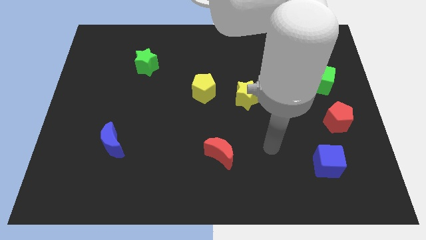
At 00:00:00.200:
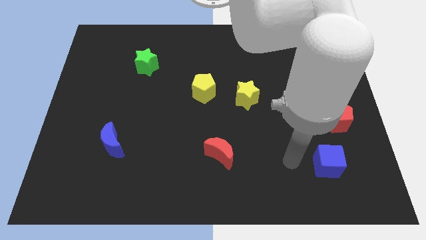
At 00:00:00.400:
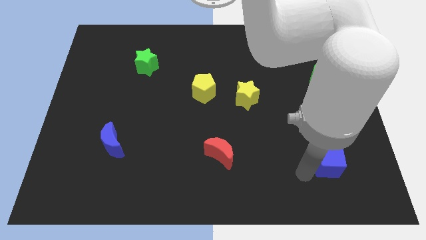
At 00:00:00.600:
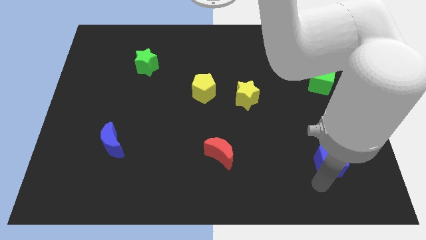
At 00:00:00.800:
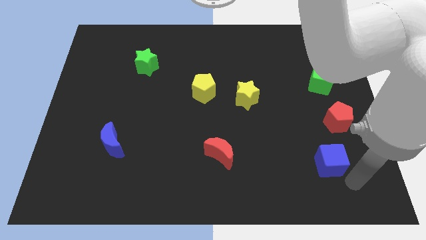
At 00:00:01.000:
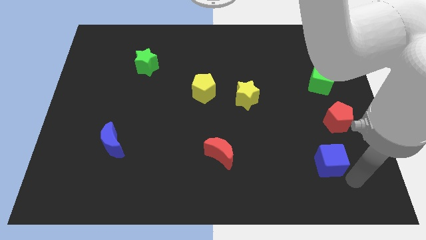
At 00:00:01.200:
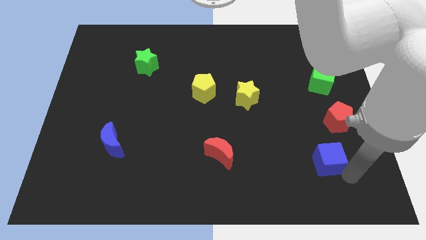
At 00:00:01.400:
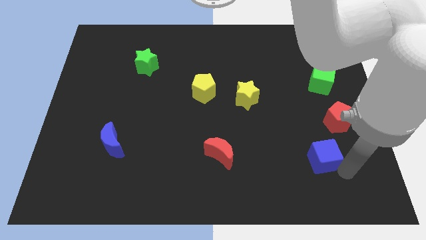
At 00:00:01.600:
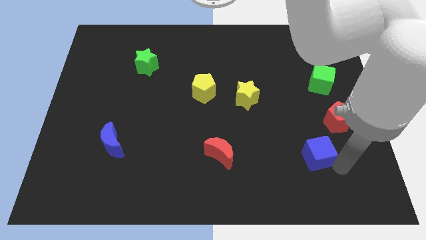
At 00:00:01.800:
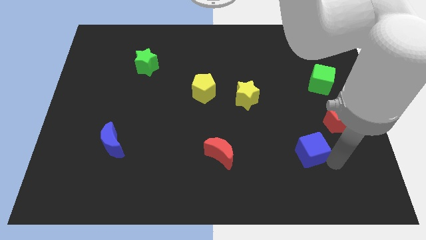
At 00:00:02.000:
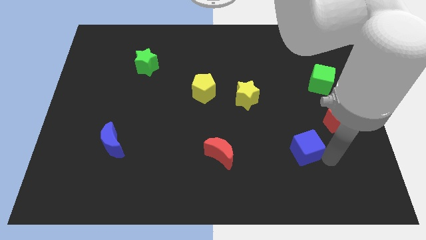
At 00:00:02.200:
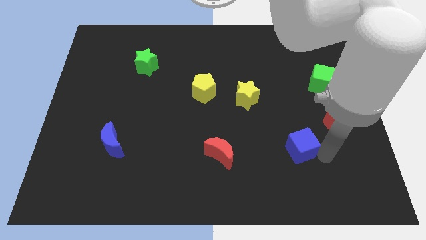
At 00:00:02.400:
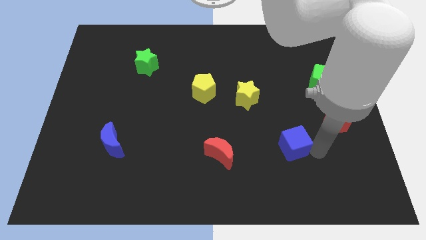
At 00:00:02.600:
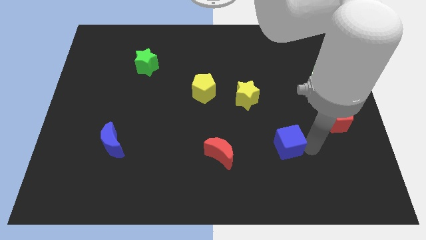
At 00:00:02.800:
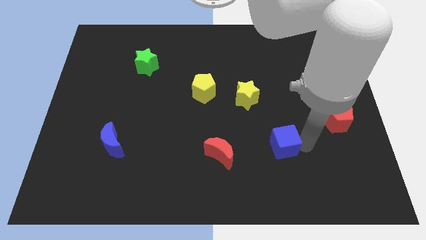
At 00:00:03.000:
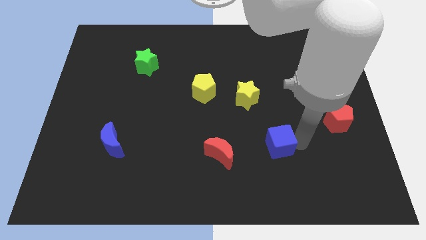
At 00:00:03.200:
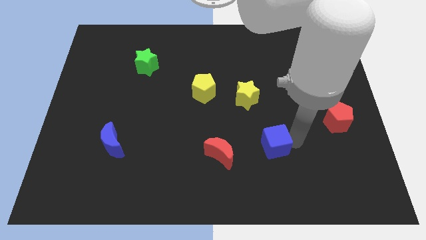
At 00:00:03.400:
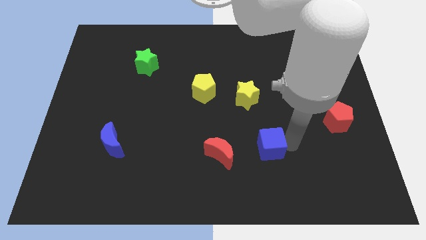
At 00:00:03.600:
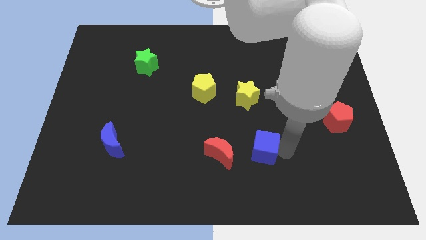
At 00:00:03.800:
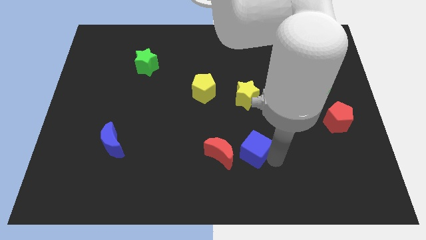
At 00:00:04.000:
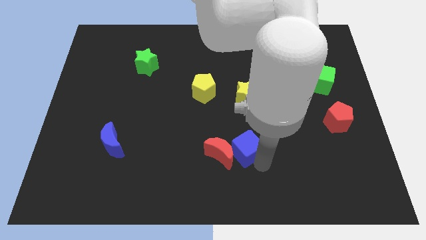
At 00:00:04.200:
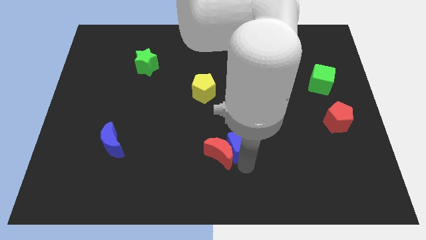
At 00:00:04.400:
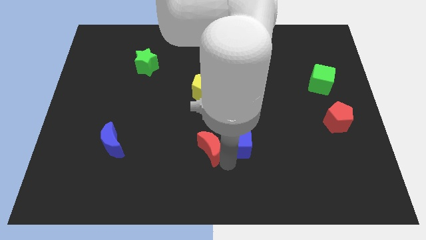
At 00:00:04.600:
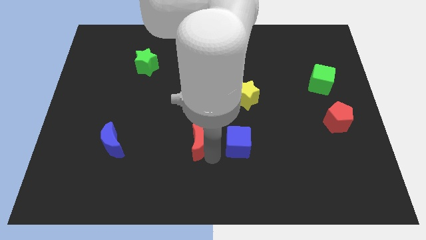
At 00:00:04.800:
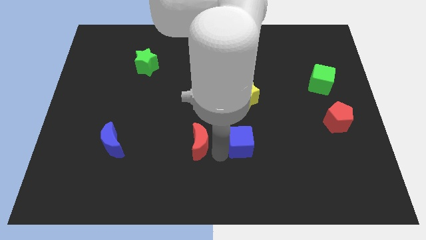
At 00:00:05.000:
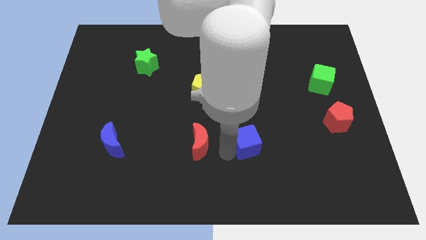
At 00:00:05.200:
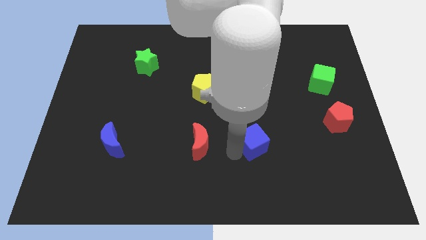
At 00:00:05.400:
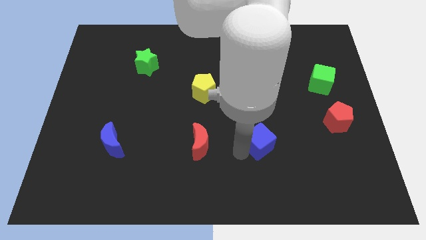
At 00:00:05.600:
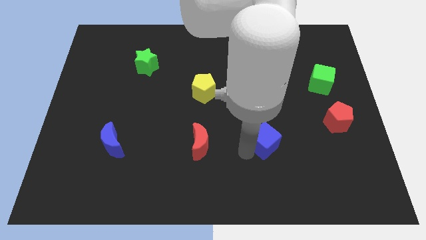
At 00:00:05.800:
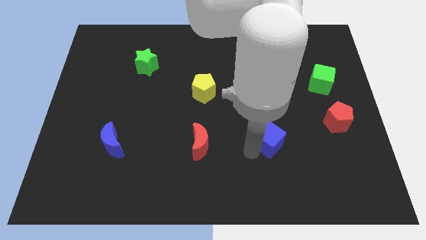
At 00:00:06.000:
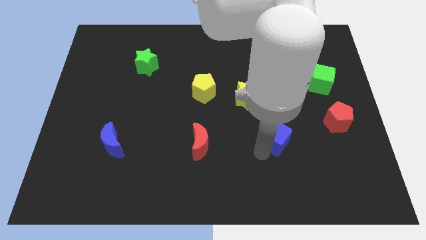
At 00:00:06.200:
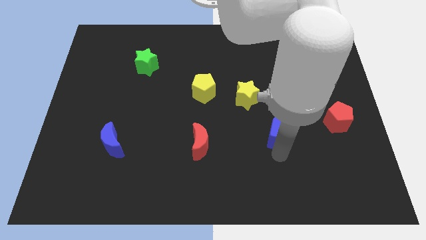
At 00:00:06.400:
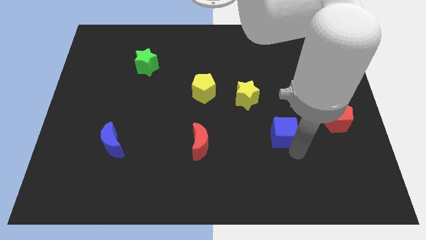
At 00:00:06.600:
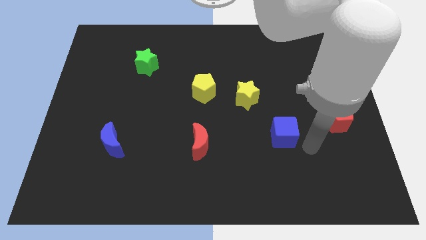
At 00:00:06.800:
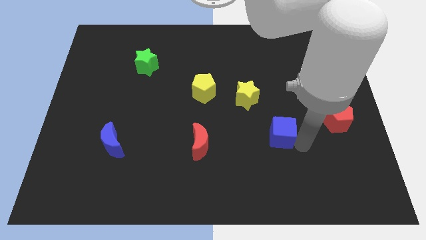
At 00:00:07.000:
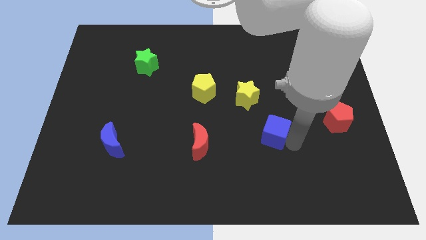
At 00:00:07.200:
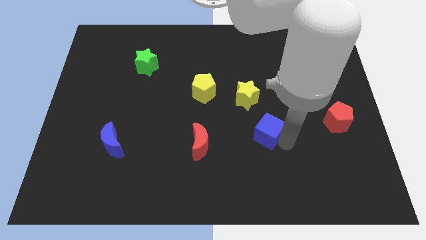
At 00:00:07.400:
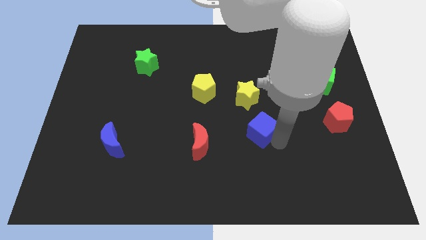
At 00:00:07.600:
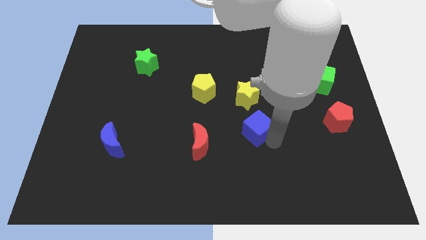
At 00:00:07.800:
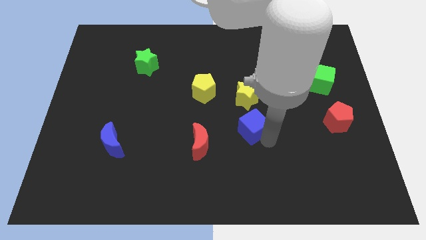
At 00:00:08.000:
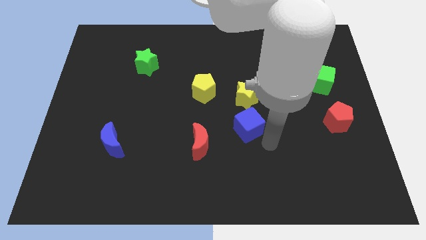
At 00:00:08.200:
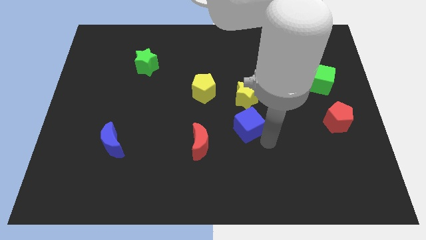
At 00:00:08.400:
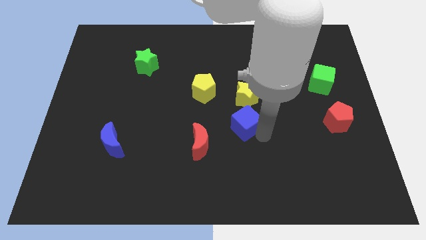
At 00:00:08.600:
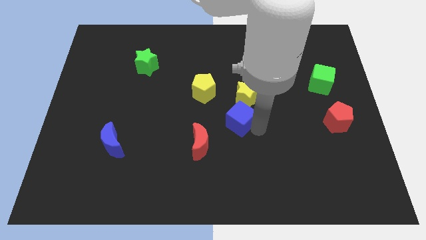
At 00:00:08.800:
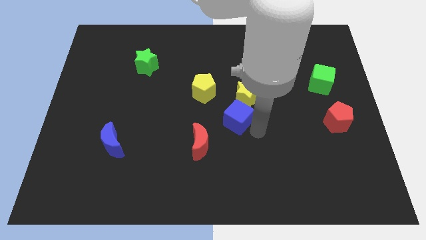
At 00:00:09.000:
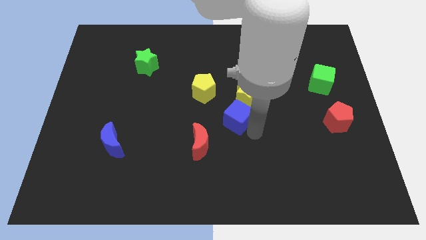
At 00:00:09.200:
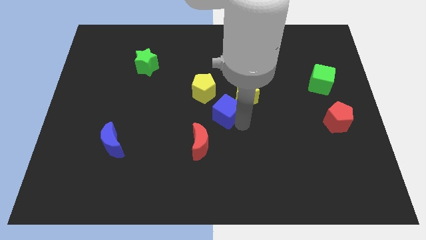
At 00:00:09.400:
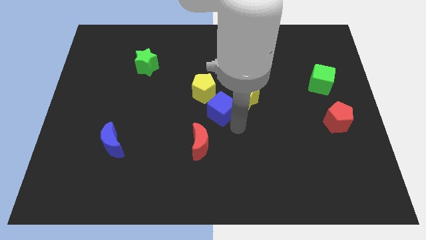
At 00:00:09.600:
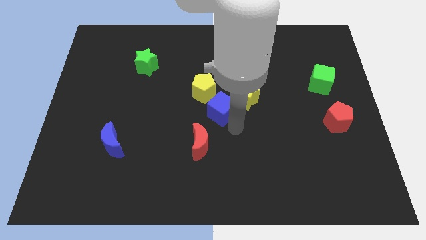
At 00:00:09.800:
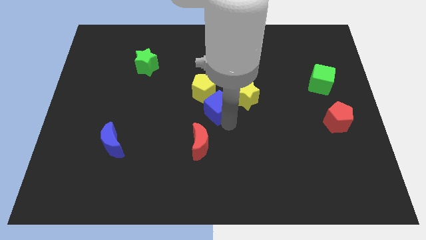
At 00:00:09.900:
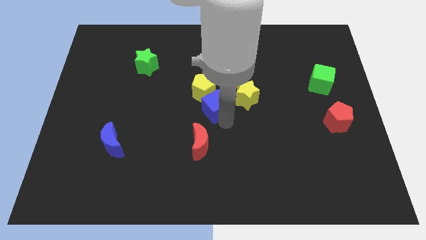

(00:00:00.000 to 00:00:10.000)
put the blue cube close to the yellow pentagon

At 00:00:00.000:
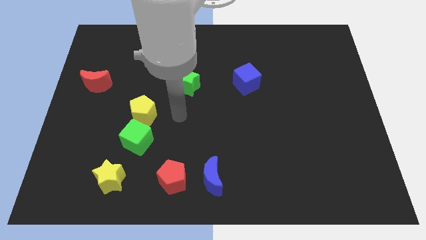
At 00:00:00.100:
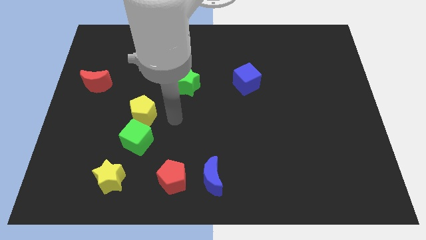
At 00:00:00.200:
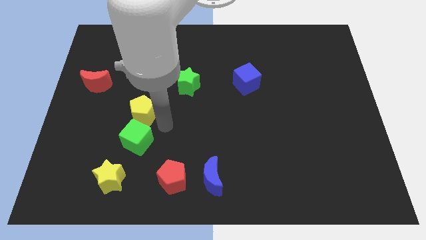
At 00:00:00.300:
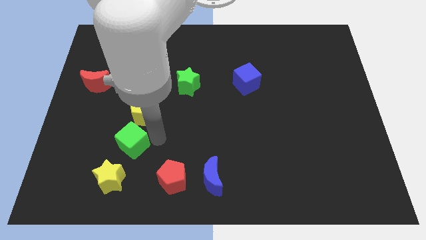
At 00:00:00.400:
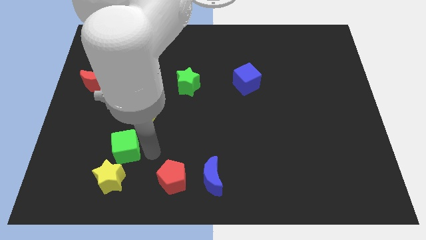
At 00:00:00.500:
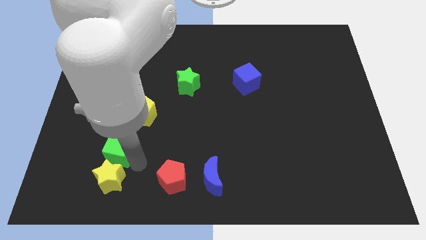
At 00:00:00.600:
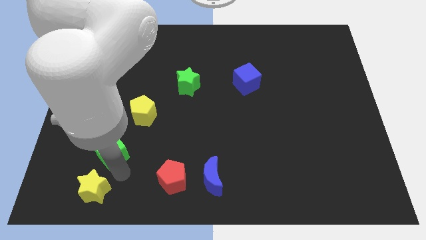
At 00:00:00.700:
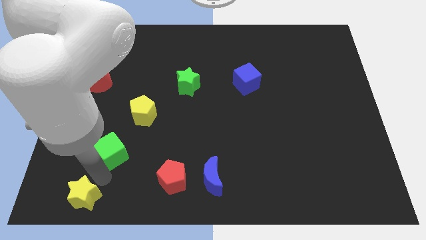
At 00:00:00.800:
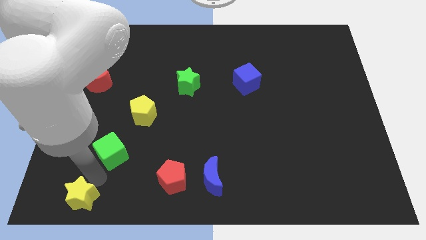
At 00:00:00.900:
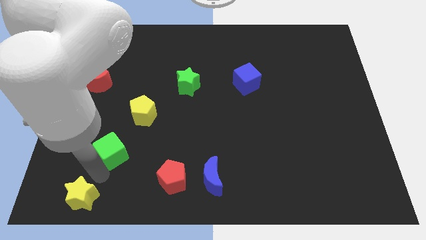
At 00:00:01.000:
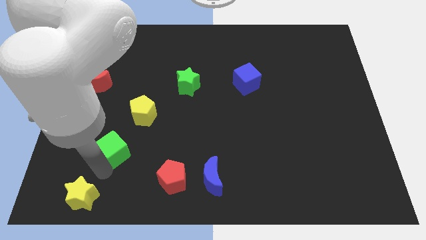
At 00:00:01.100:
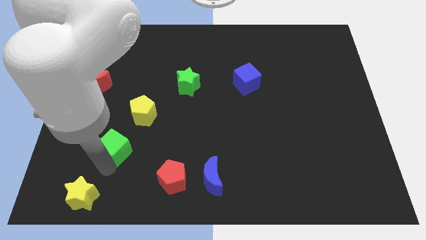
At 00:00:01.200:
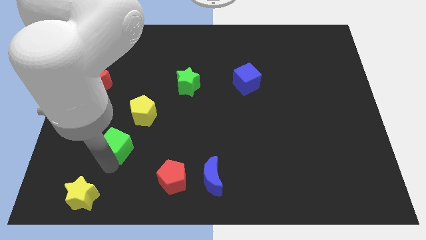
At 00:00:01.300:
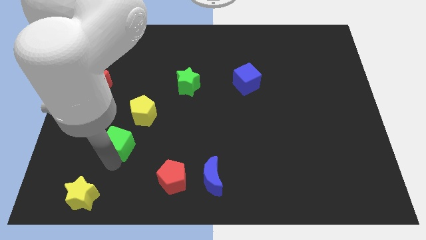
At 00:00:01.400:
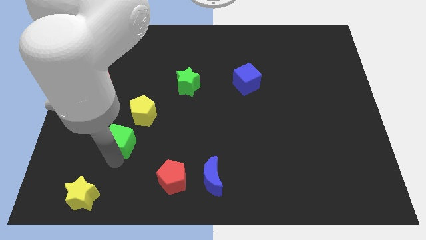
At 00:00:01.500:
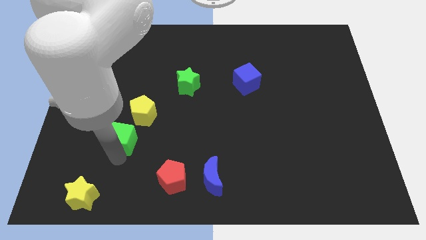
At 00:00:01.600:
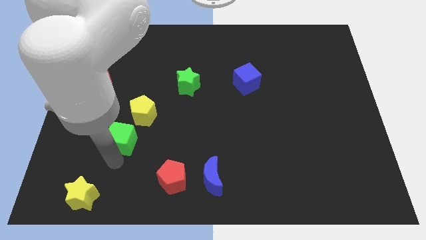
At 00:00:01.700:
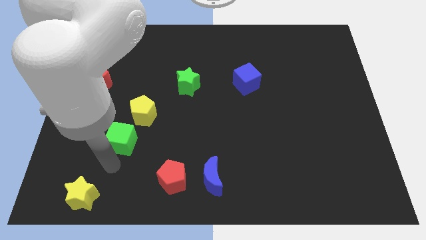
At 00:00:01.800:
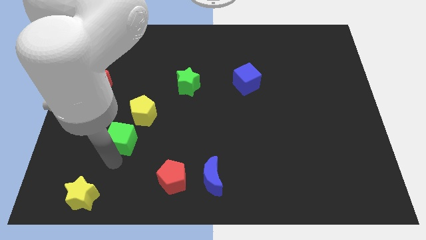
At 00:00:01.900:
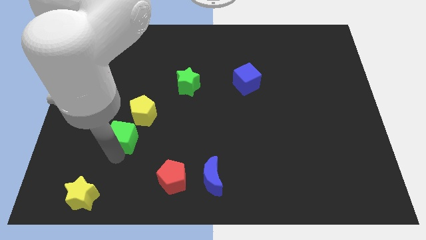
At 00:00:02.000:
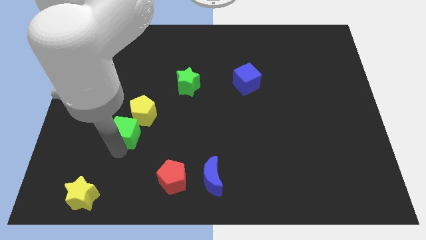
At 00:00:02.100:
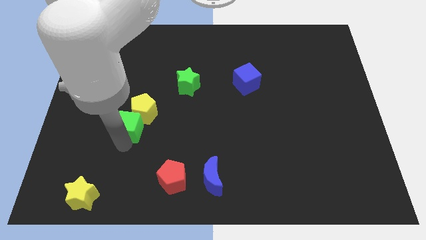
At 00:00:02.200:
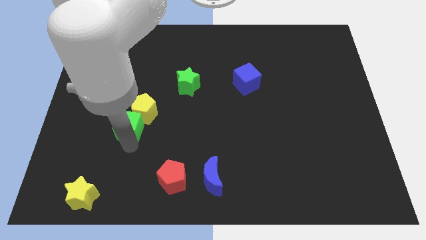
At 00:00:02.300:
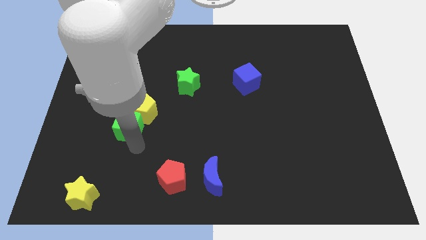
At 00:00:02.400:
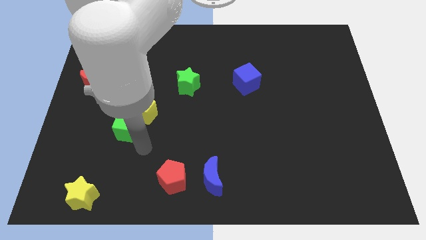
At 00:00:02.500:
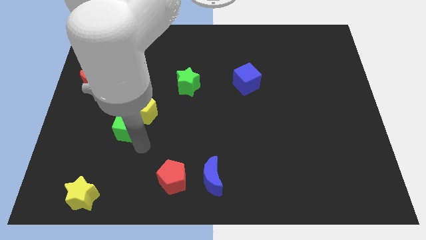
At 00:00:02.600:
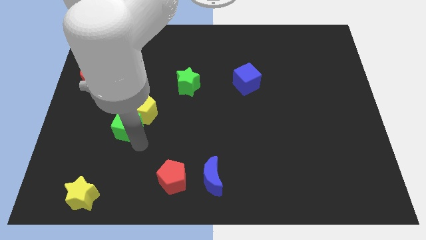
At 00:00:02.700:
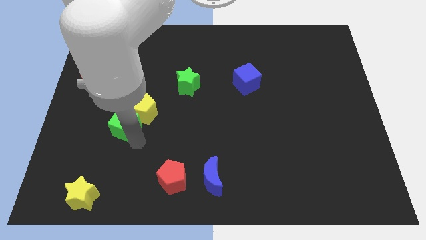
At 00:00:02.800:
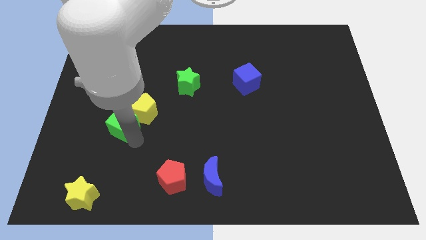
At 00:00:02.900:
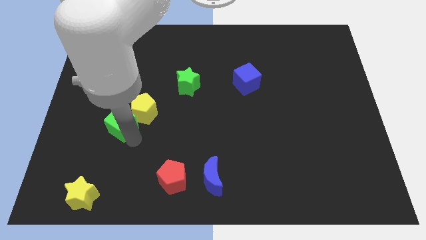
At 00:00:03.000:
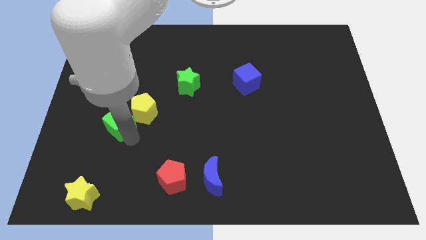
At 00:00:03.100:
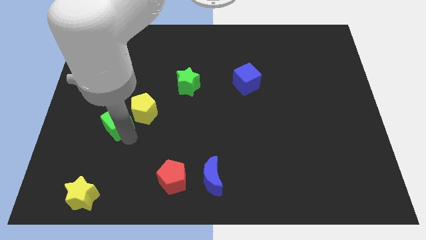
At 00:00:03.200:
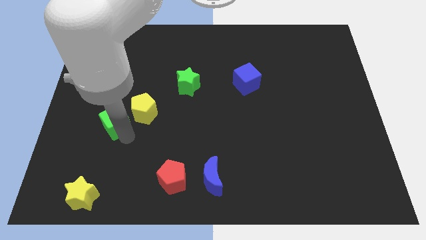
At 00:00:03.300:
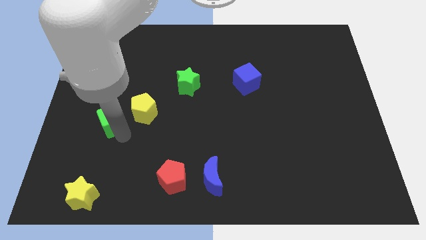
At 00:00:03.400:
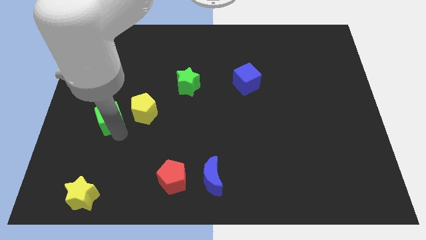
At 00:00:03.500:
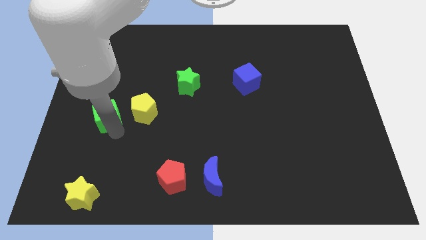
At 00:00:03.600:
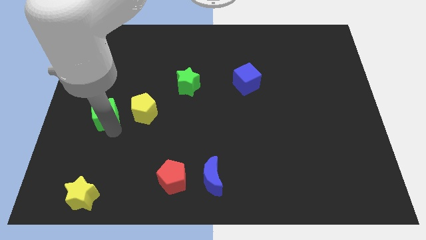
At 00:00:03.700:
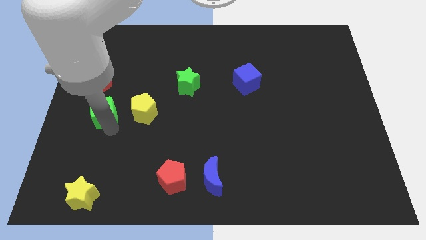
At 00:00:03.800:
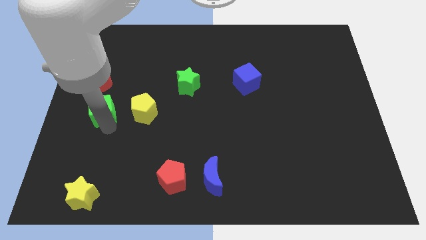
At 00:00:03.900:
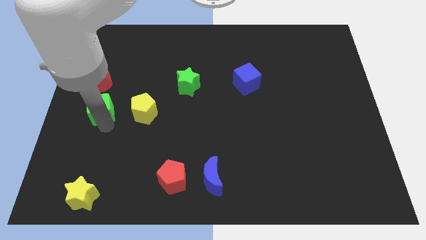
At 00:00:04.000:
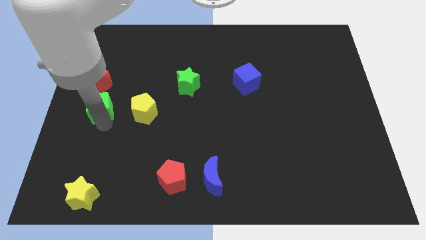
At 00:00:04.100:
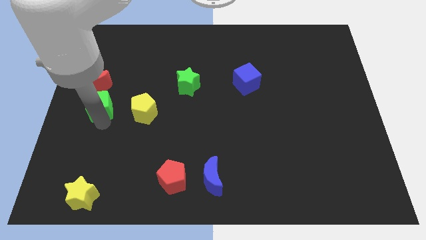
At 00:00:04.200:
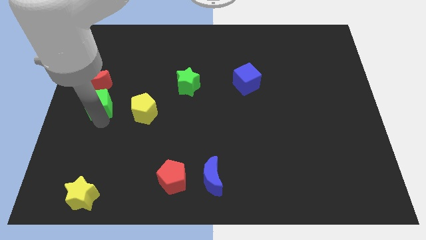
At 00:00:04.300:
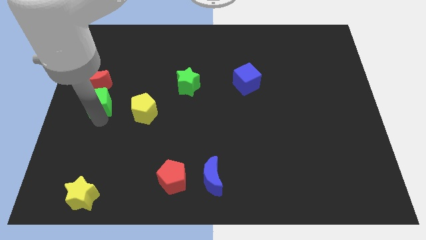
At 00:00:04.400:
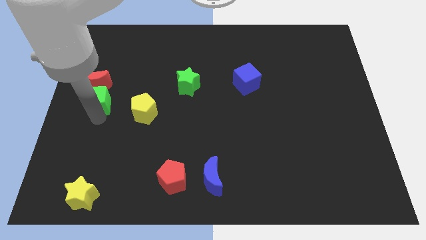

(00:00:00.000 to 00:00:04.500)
push the green cube next to the red moon
